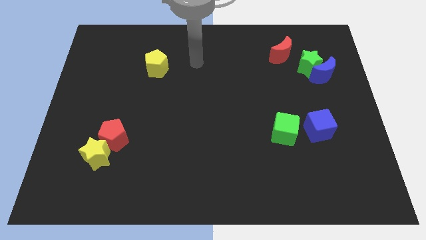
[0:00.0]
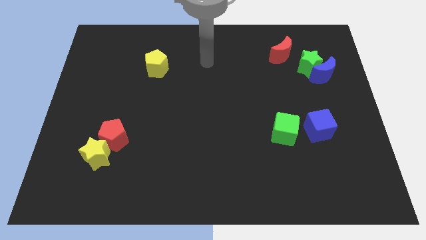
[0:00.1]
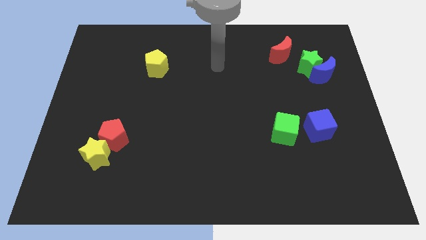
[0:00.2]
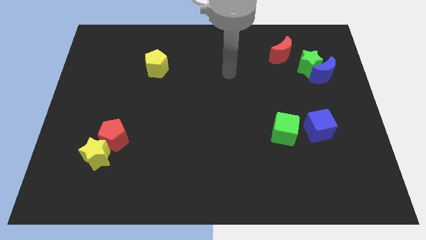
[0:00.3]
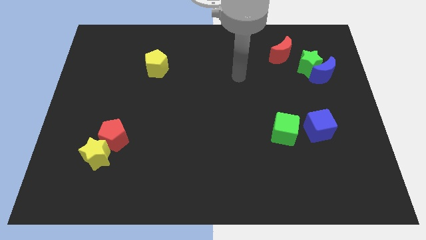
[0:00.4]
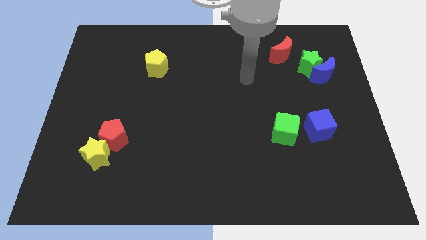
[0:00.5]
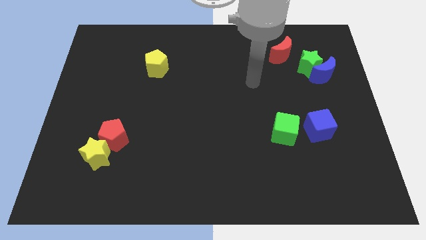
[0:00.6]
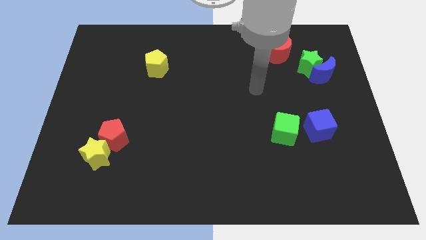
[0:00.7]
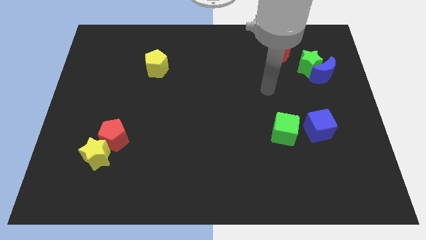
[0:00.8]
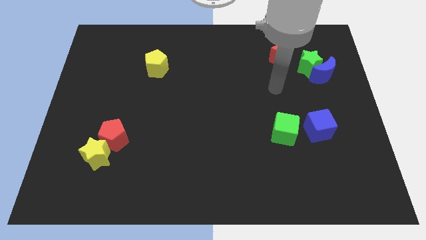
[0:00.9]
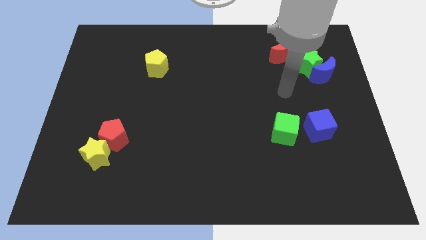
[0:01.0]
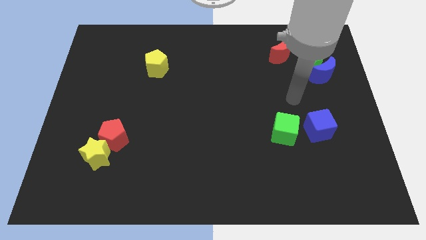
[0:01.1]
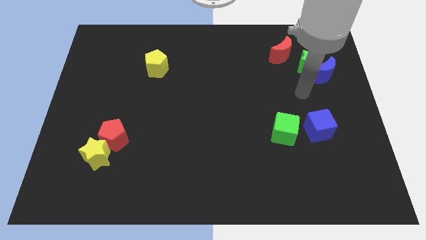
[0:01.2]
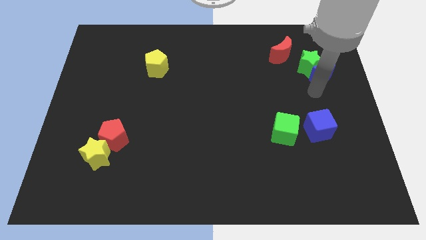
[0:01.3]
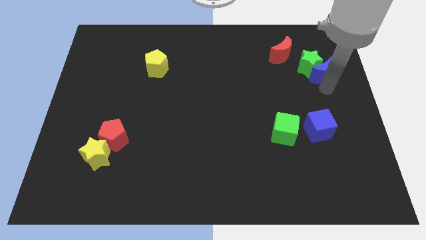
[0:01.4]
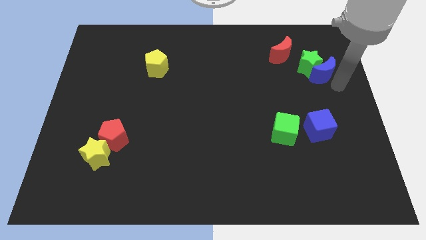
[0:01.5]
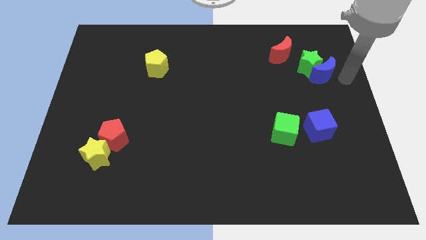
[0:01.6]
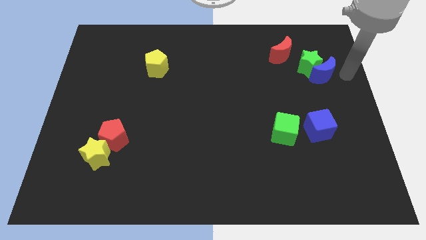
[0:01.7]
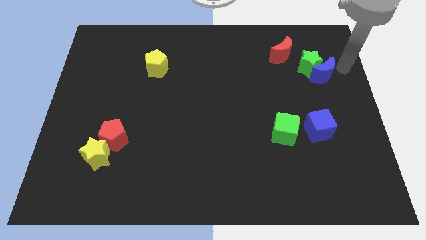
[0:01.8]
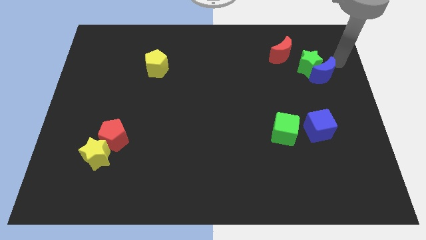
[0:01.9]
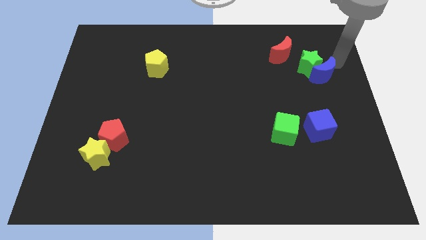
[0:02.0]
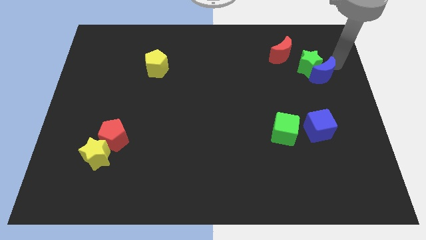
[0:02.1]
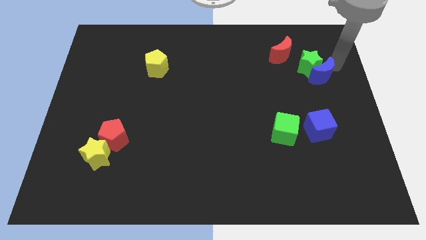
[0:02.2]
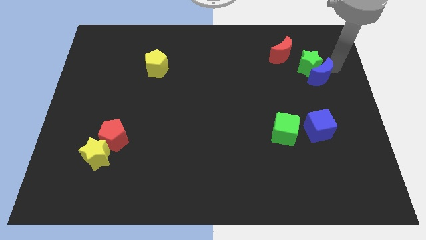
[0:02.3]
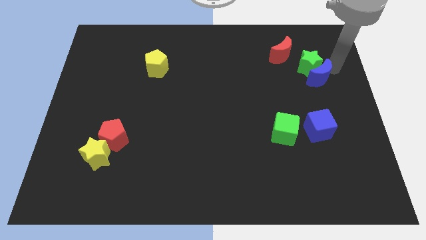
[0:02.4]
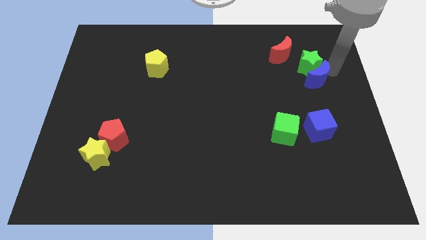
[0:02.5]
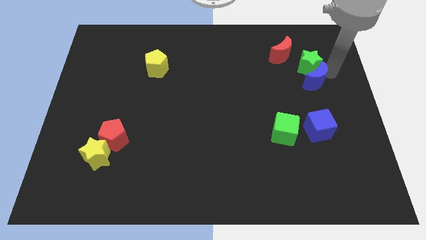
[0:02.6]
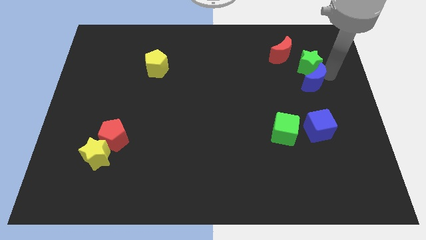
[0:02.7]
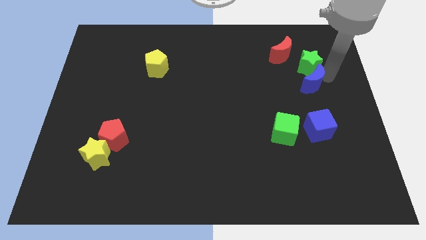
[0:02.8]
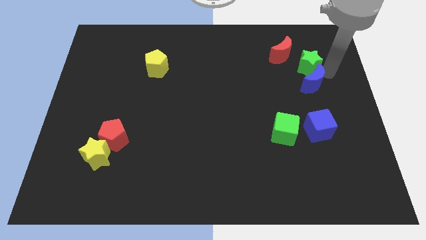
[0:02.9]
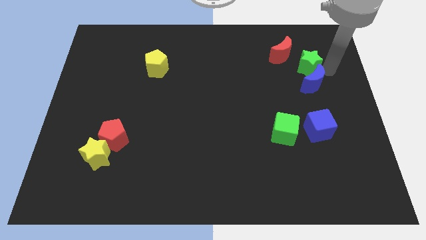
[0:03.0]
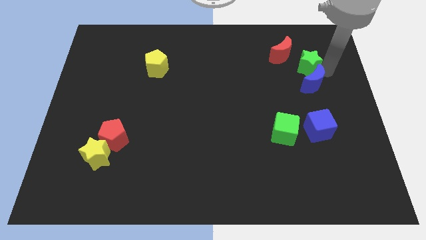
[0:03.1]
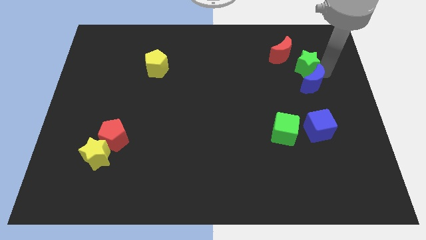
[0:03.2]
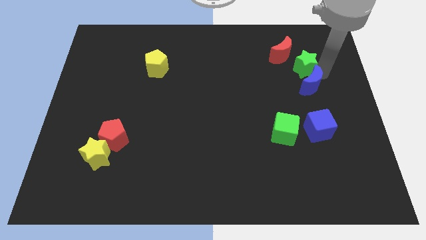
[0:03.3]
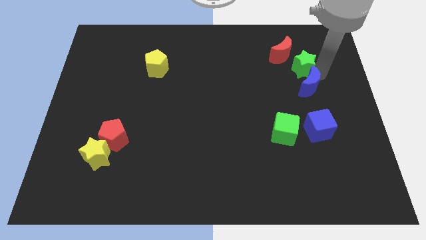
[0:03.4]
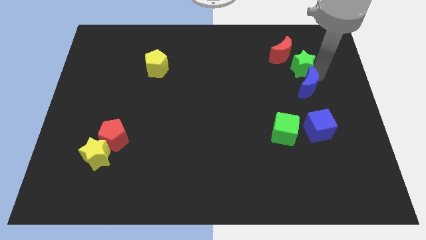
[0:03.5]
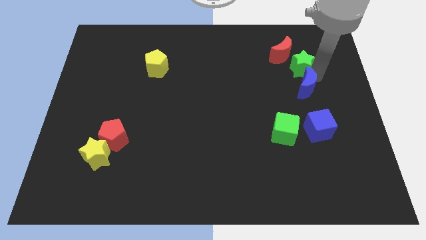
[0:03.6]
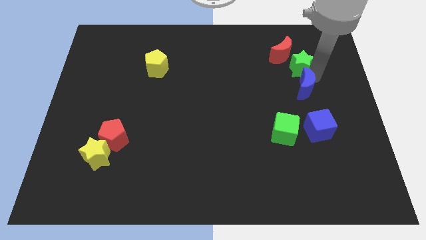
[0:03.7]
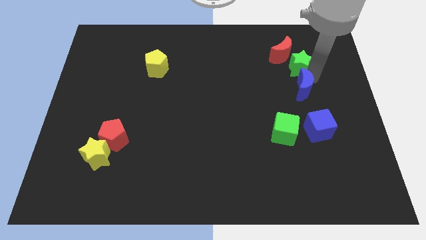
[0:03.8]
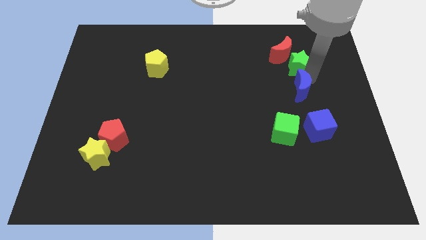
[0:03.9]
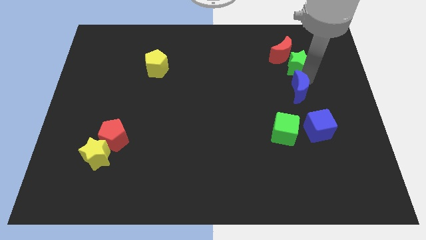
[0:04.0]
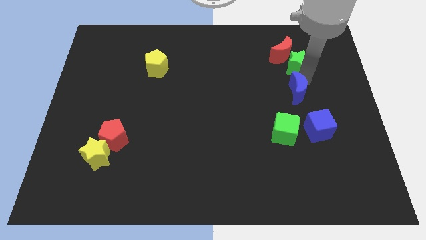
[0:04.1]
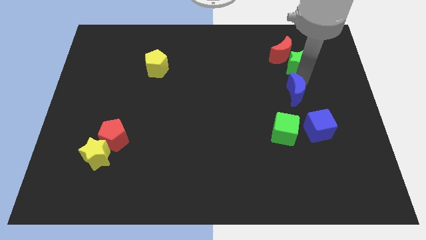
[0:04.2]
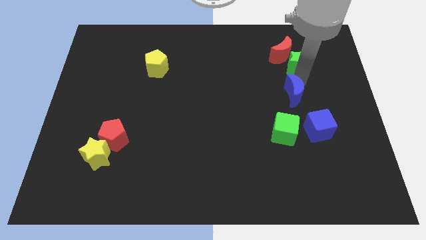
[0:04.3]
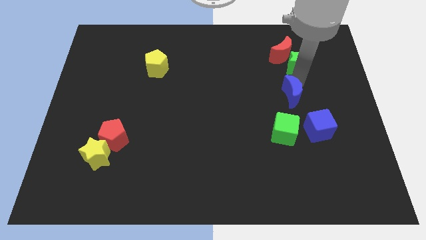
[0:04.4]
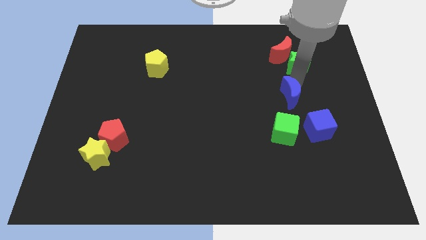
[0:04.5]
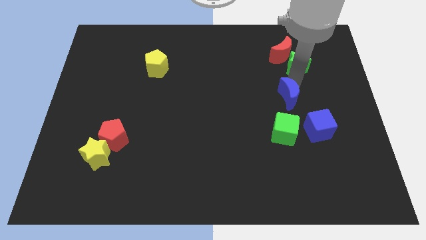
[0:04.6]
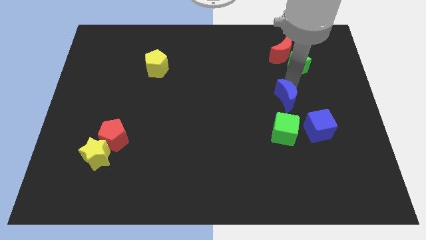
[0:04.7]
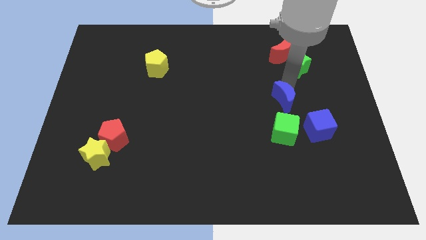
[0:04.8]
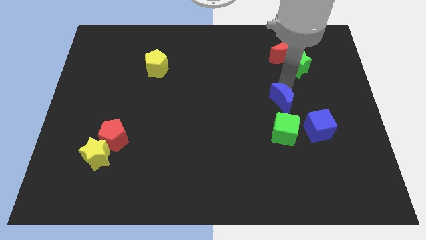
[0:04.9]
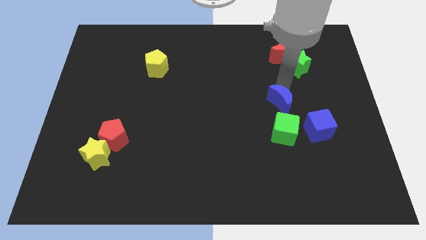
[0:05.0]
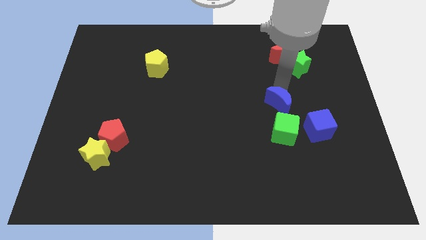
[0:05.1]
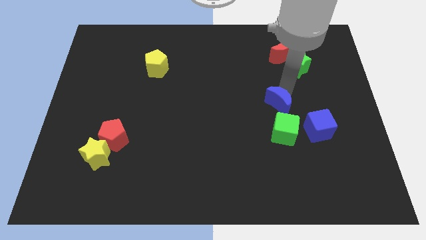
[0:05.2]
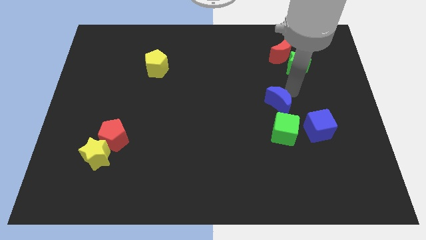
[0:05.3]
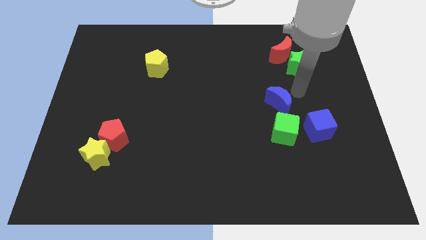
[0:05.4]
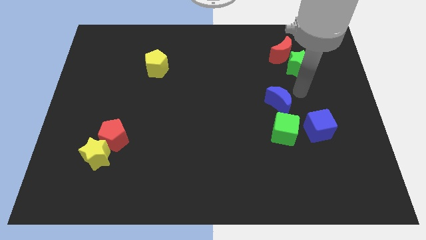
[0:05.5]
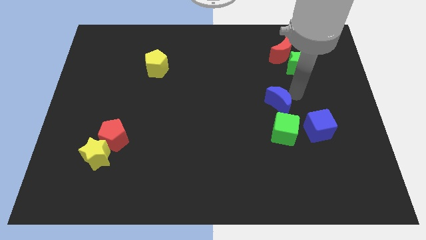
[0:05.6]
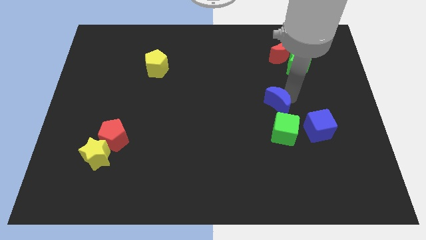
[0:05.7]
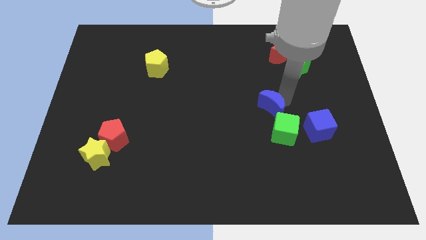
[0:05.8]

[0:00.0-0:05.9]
move the blue moon to the top left of the green cube

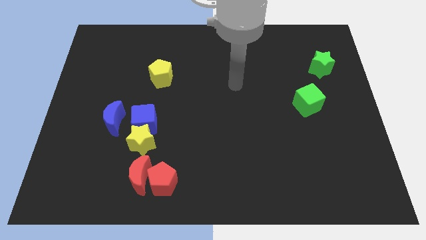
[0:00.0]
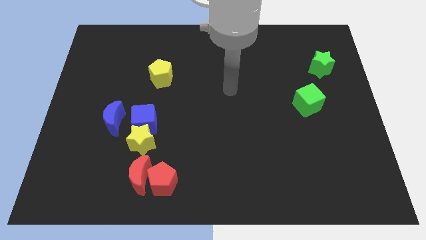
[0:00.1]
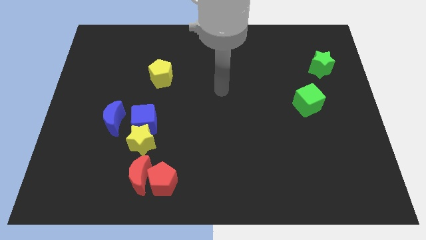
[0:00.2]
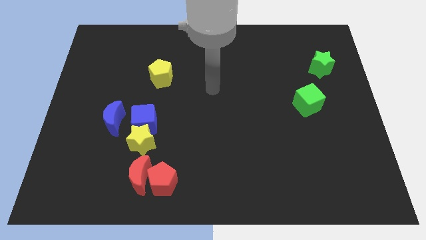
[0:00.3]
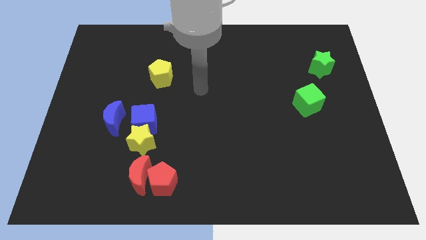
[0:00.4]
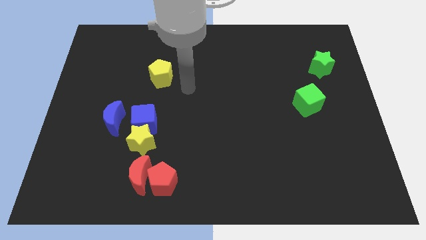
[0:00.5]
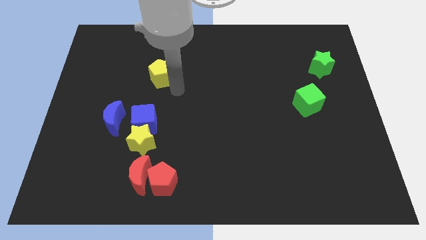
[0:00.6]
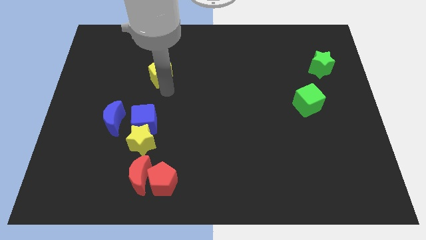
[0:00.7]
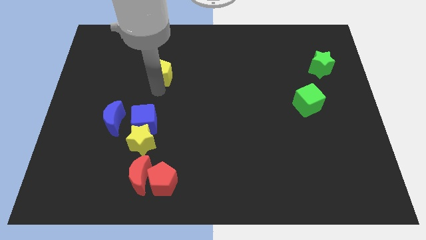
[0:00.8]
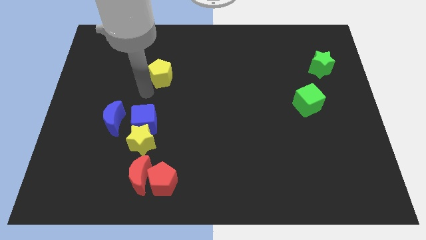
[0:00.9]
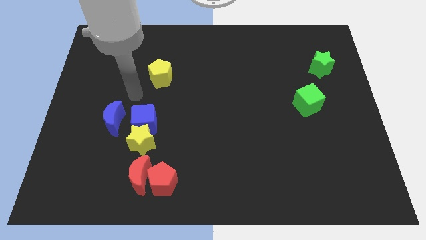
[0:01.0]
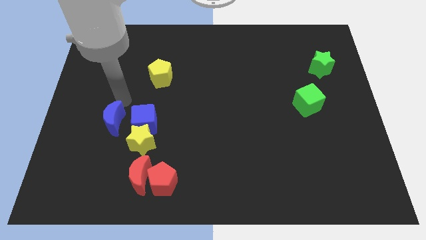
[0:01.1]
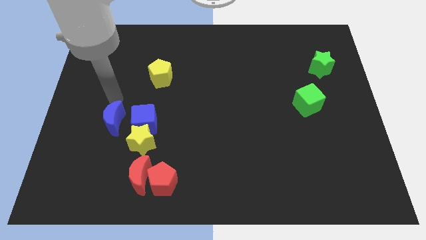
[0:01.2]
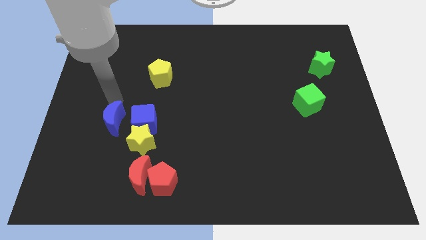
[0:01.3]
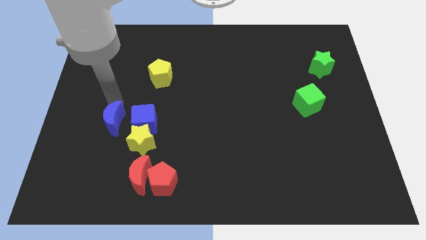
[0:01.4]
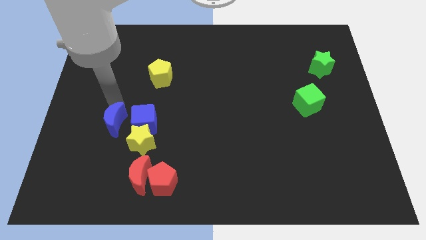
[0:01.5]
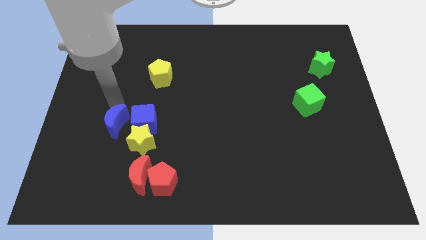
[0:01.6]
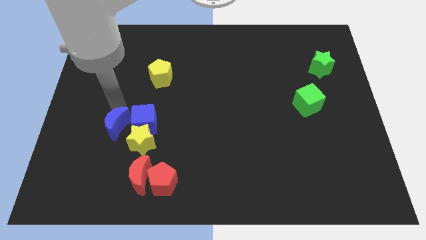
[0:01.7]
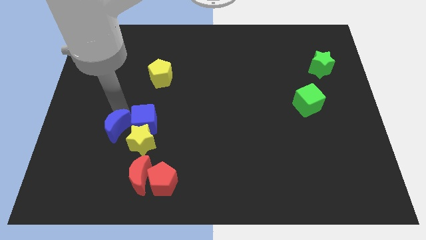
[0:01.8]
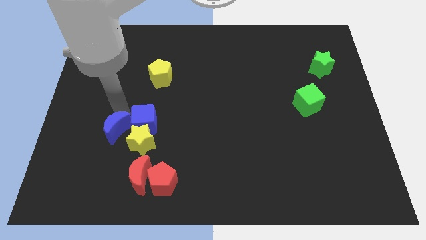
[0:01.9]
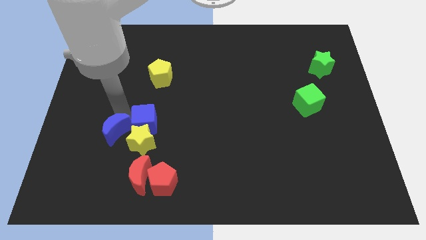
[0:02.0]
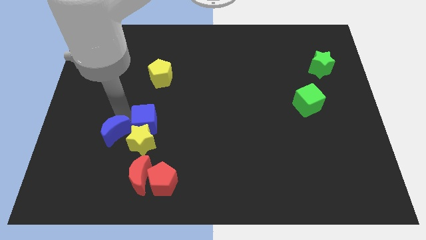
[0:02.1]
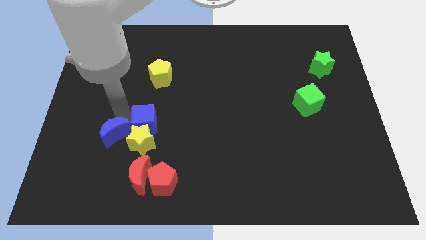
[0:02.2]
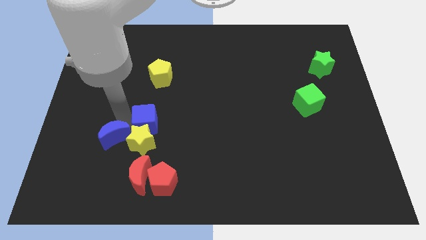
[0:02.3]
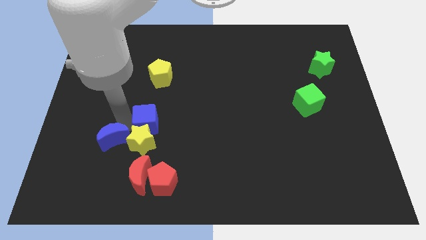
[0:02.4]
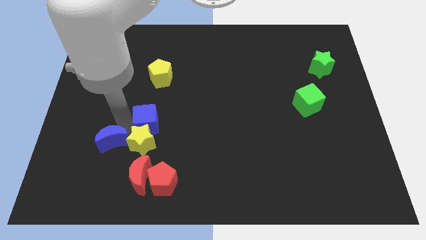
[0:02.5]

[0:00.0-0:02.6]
move the blue moon diagonally down and to the left of the yellow star
